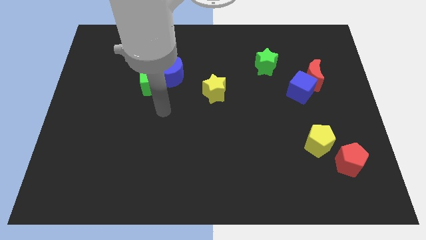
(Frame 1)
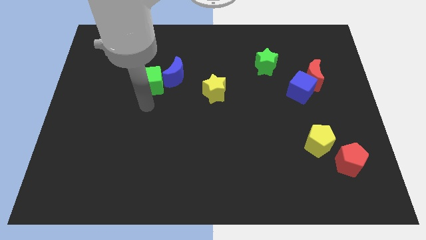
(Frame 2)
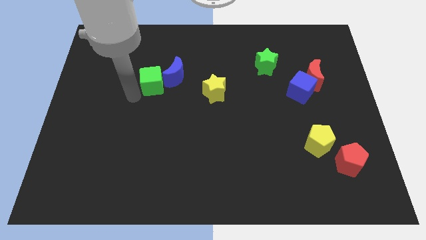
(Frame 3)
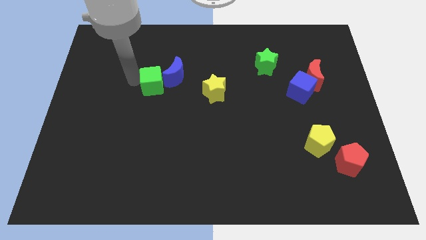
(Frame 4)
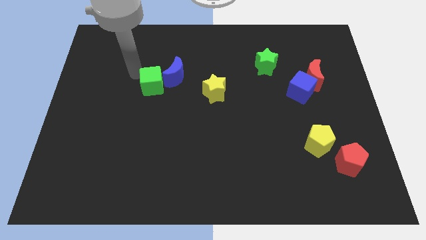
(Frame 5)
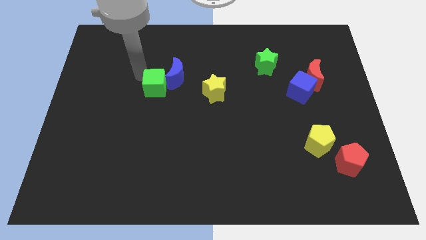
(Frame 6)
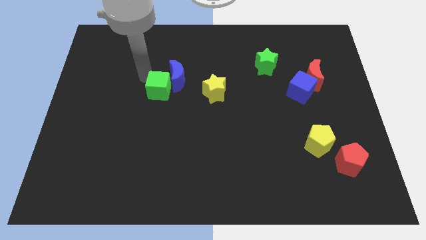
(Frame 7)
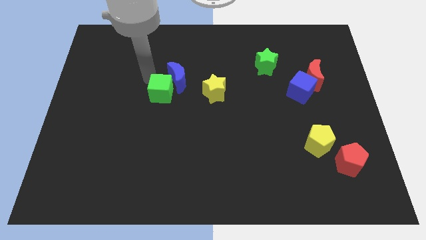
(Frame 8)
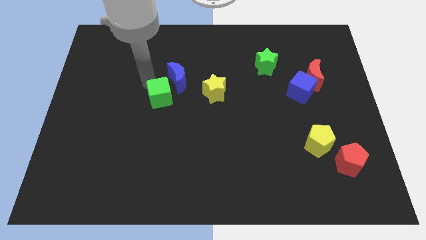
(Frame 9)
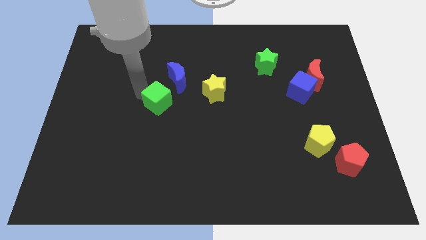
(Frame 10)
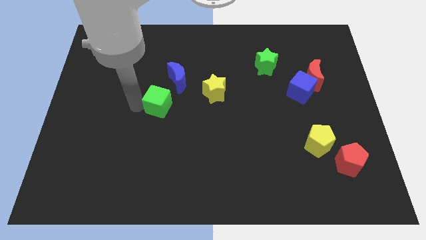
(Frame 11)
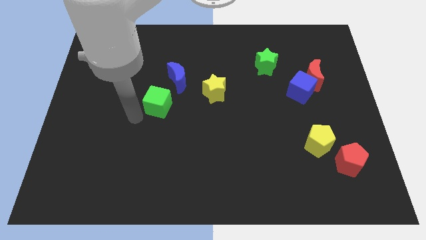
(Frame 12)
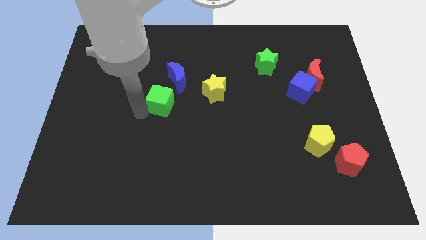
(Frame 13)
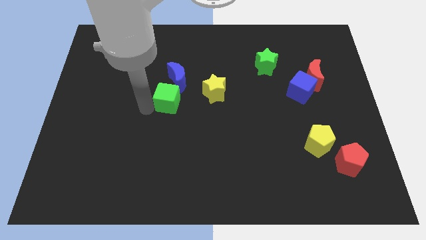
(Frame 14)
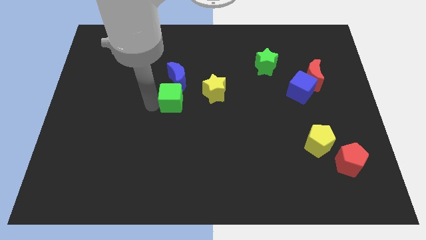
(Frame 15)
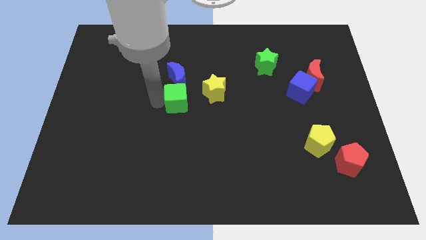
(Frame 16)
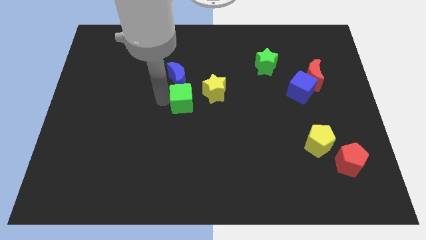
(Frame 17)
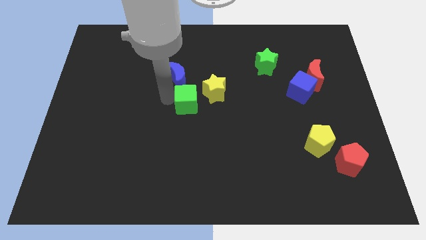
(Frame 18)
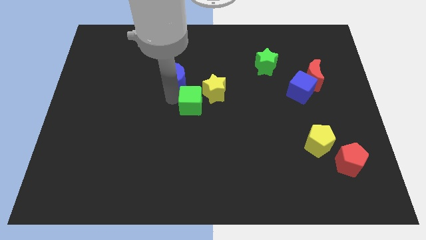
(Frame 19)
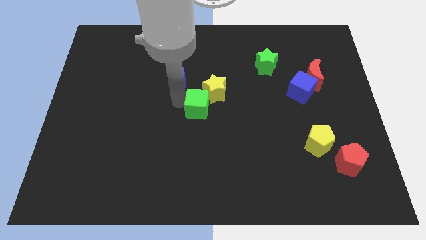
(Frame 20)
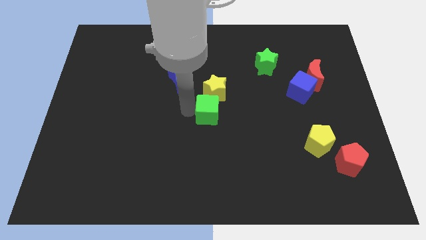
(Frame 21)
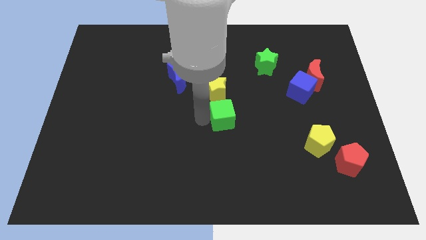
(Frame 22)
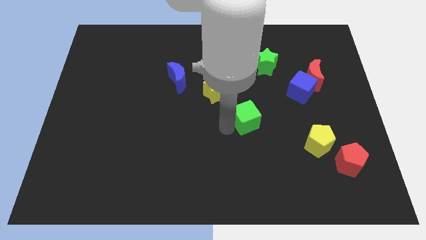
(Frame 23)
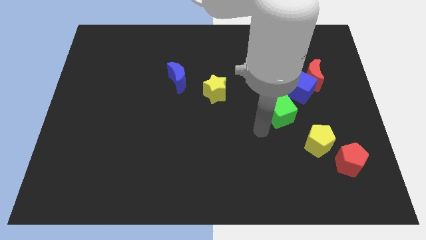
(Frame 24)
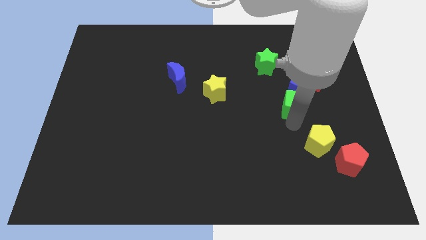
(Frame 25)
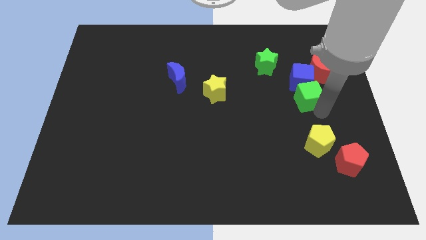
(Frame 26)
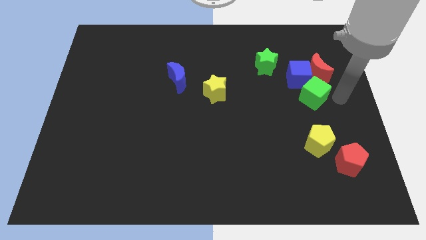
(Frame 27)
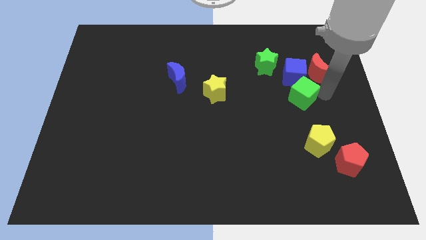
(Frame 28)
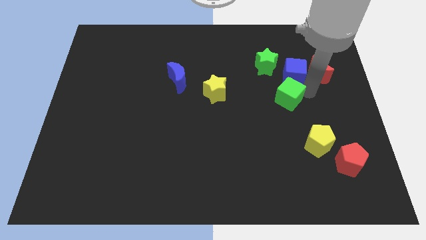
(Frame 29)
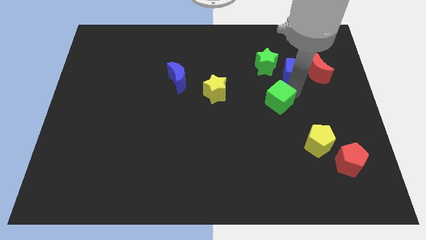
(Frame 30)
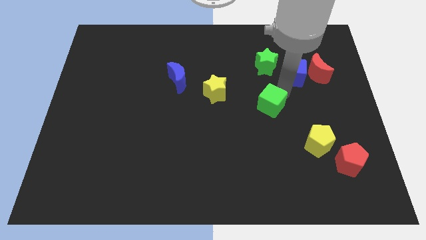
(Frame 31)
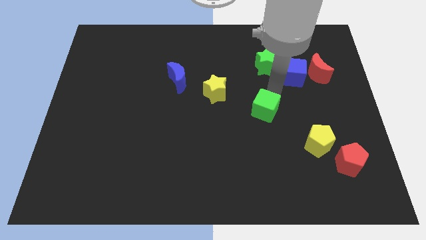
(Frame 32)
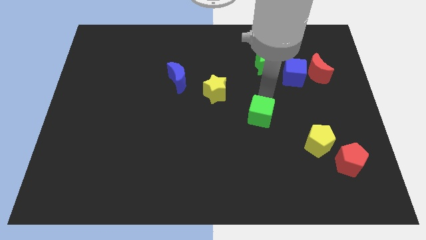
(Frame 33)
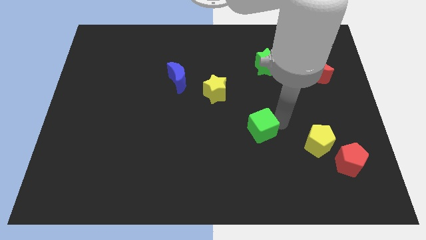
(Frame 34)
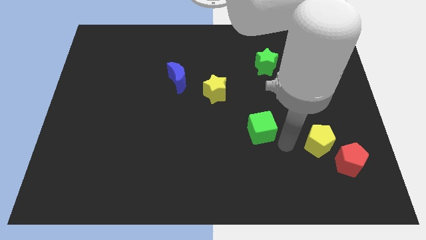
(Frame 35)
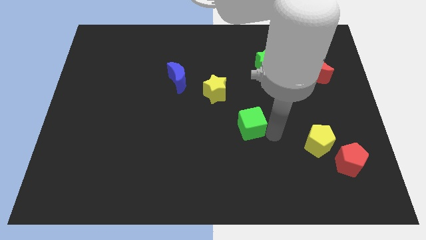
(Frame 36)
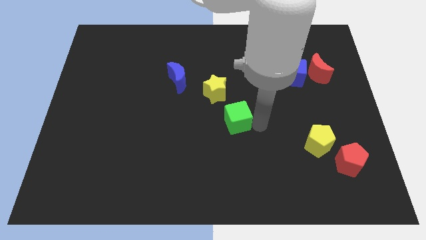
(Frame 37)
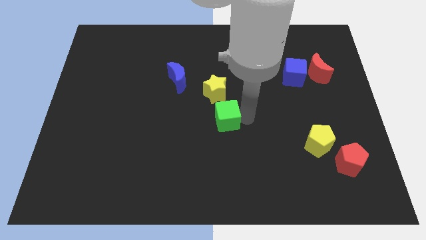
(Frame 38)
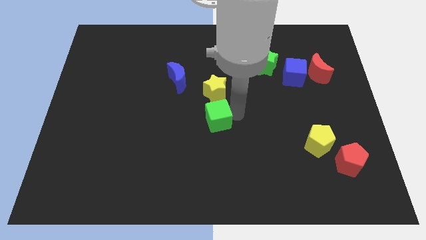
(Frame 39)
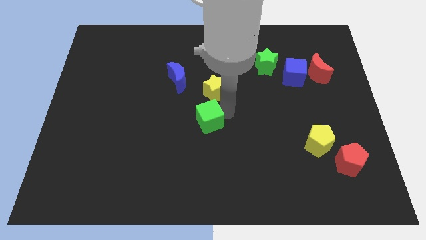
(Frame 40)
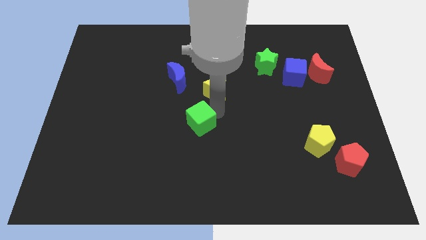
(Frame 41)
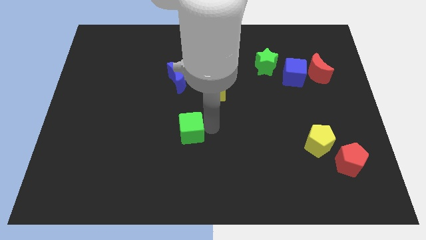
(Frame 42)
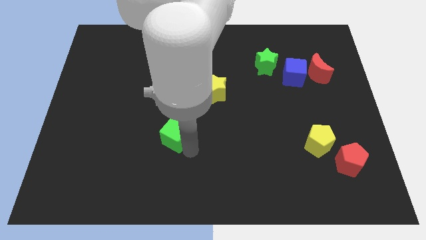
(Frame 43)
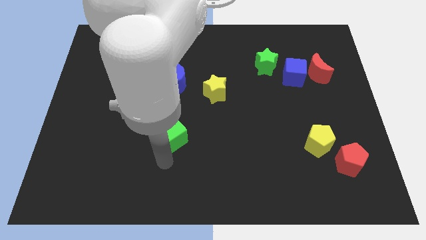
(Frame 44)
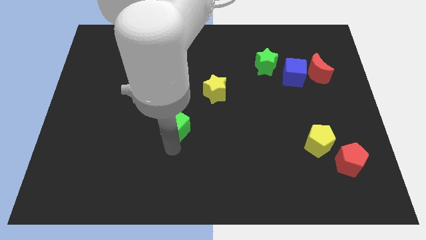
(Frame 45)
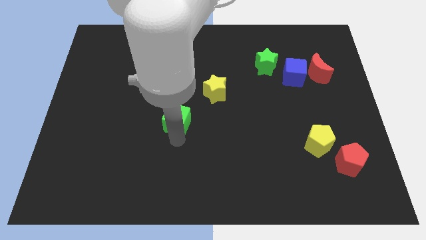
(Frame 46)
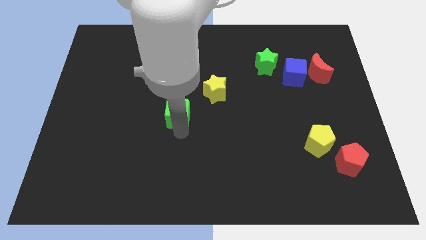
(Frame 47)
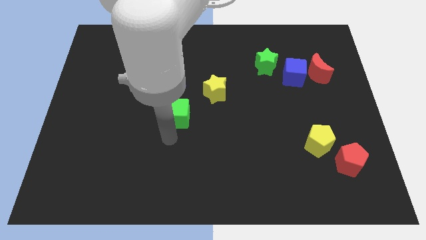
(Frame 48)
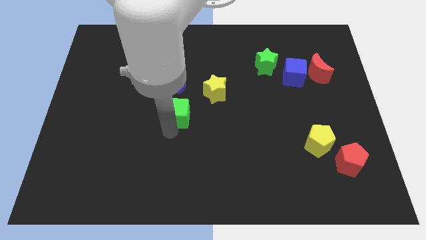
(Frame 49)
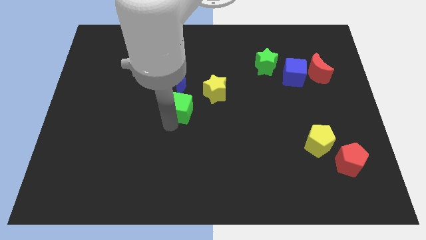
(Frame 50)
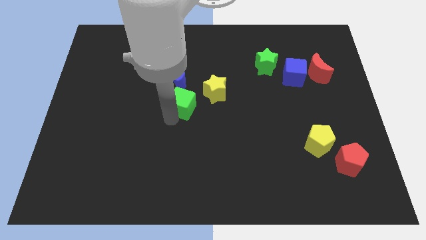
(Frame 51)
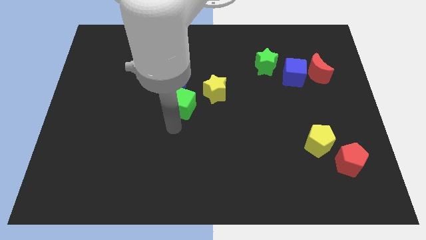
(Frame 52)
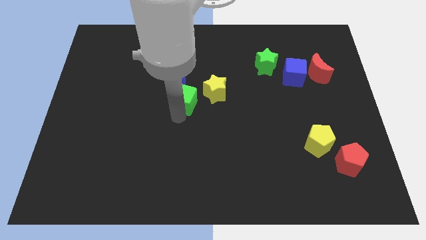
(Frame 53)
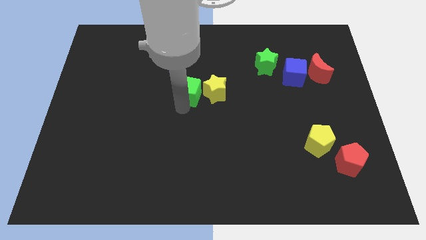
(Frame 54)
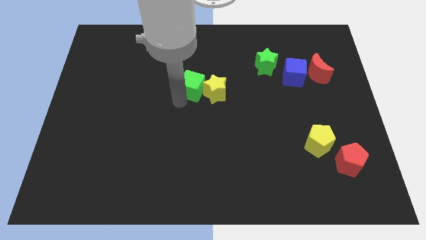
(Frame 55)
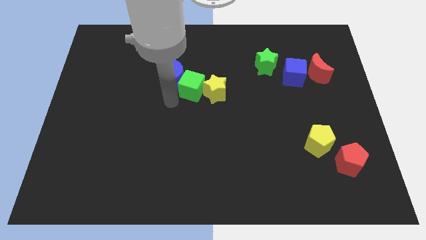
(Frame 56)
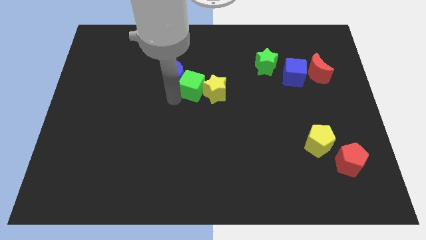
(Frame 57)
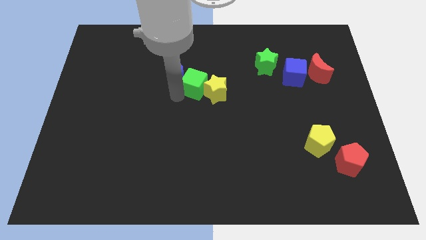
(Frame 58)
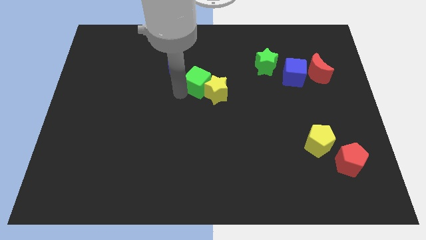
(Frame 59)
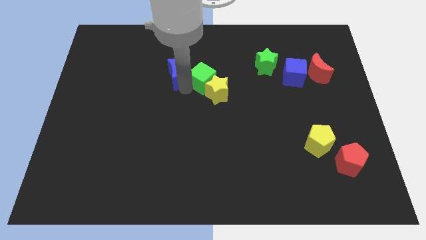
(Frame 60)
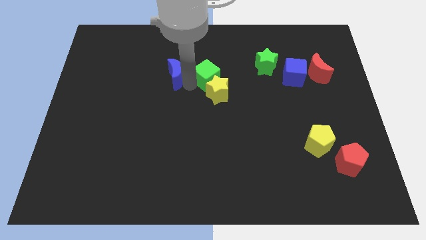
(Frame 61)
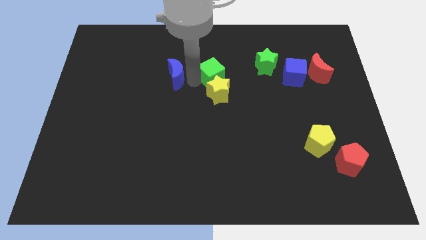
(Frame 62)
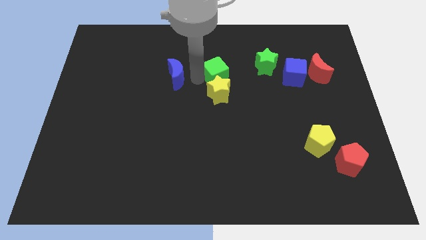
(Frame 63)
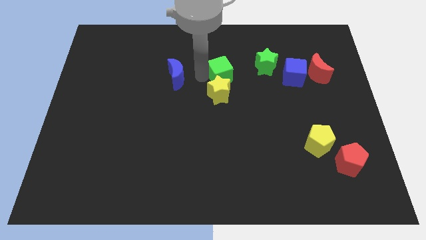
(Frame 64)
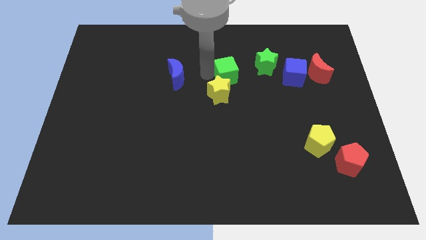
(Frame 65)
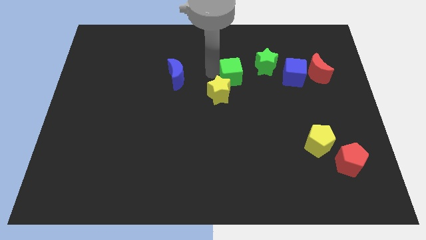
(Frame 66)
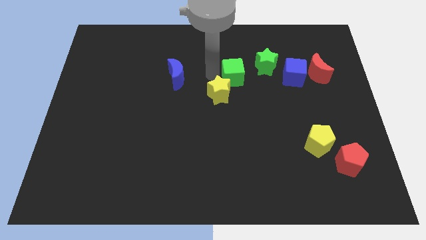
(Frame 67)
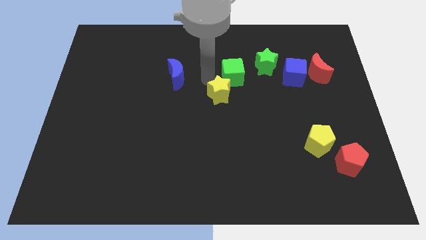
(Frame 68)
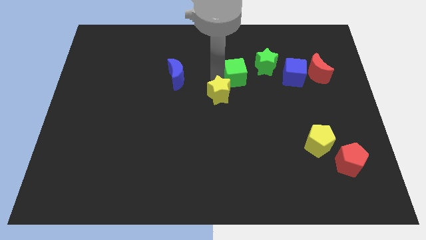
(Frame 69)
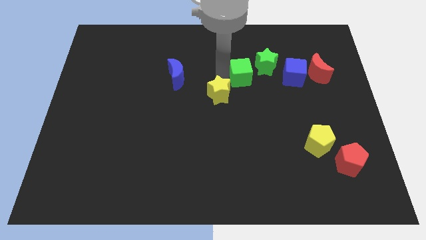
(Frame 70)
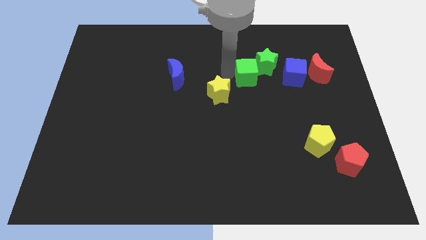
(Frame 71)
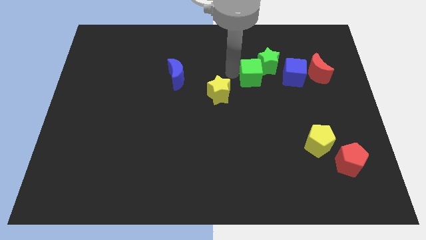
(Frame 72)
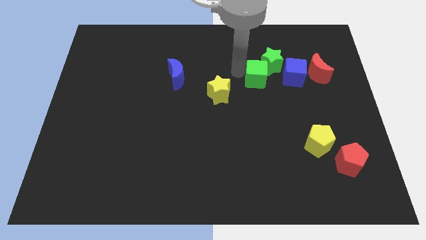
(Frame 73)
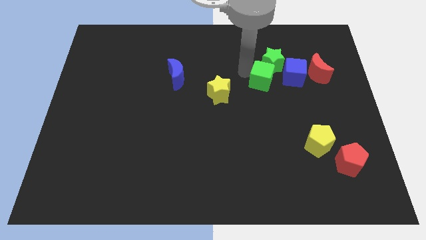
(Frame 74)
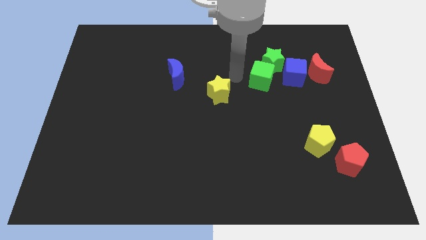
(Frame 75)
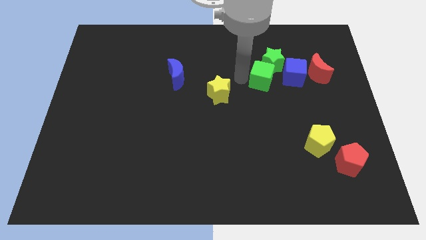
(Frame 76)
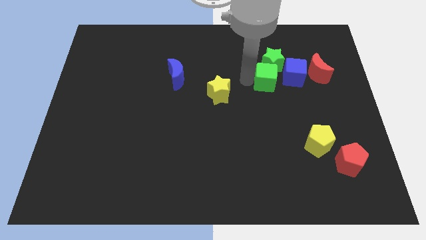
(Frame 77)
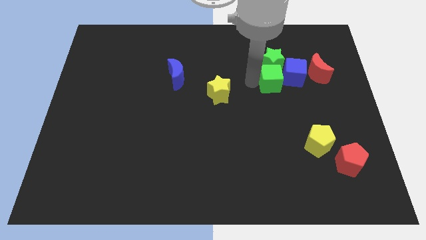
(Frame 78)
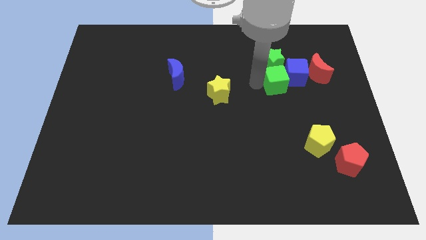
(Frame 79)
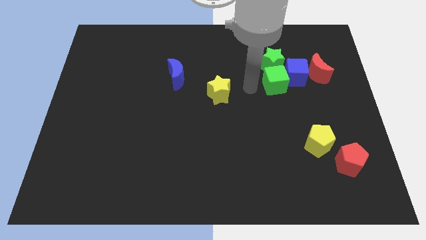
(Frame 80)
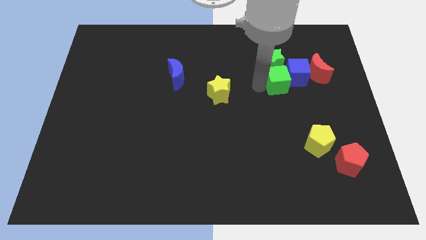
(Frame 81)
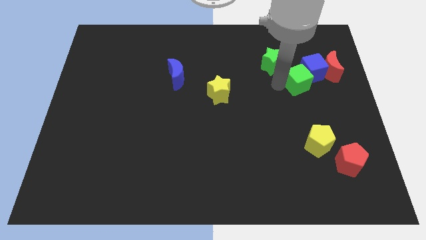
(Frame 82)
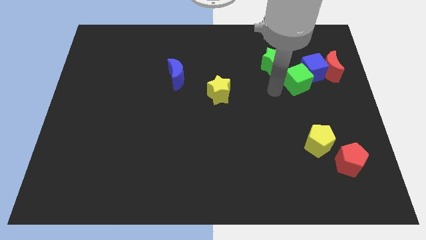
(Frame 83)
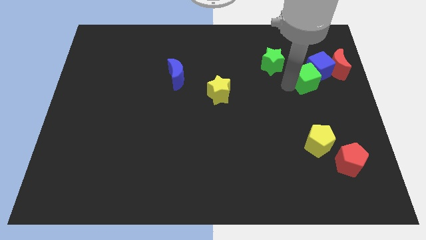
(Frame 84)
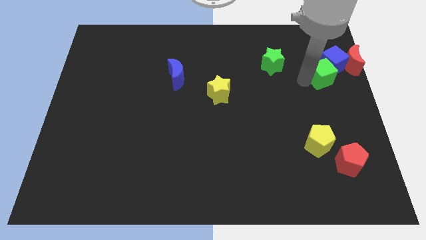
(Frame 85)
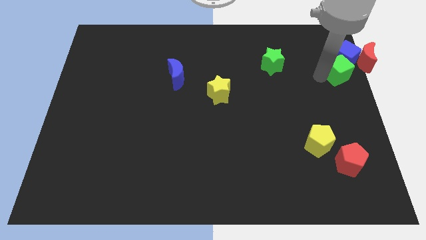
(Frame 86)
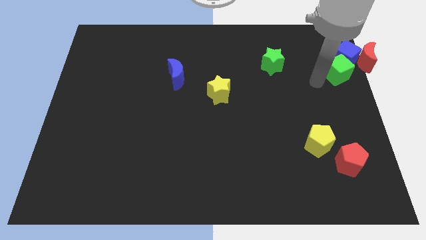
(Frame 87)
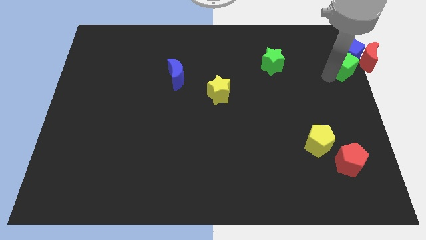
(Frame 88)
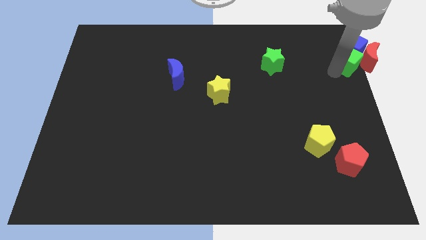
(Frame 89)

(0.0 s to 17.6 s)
put the green cube close to the red moon
